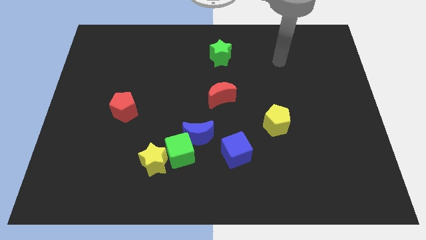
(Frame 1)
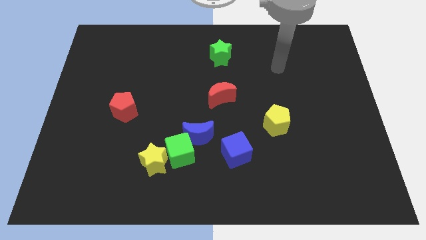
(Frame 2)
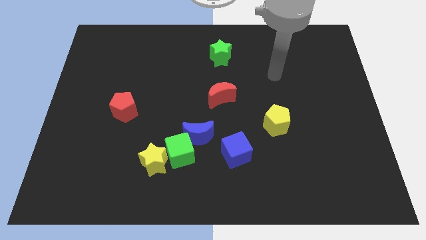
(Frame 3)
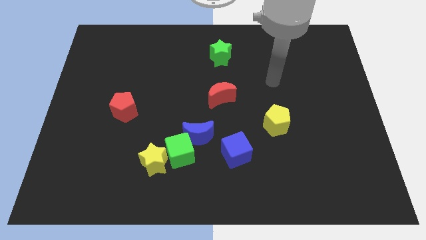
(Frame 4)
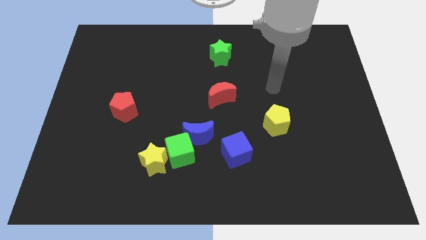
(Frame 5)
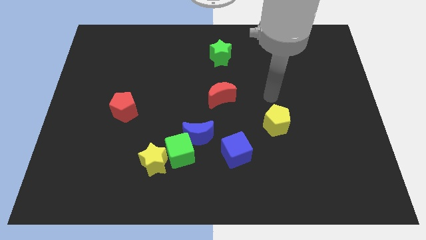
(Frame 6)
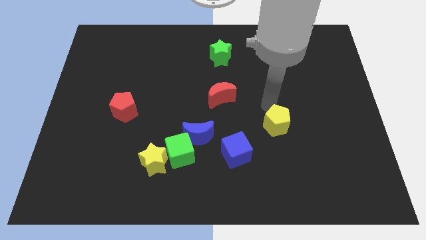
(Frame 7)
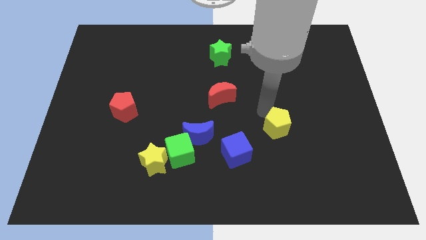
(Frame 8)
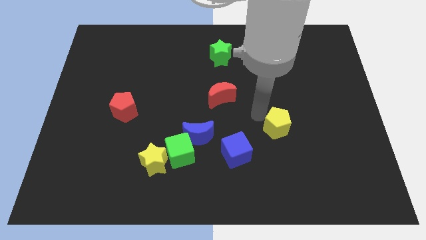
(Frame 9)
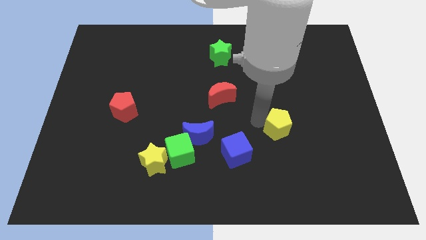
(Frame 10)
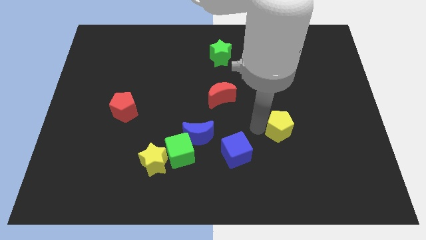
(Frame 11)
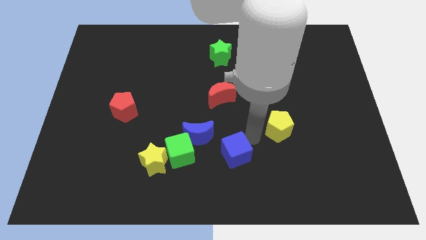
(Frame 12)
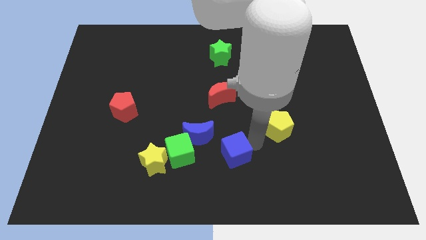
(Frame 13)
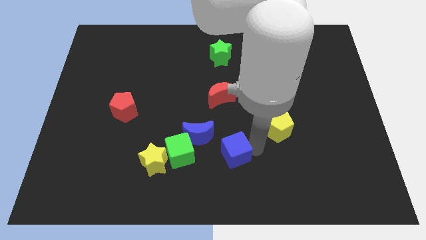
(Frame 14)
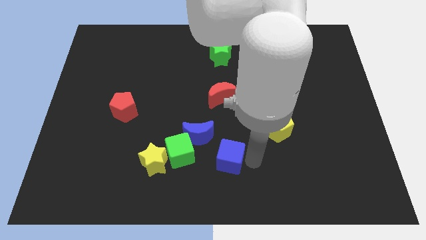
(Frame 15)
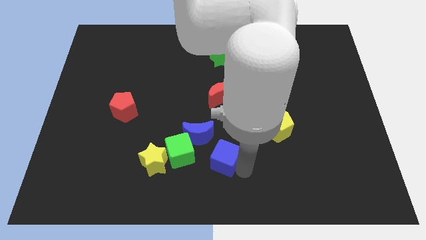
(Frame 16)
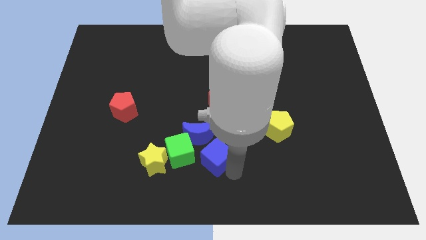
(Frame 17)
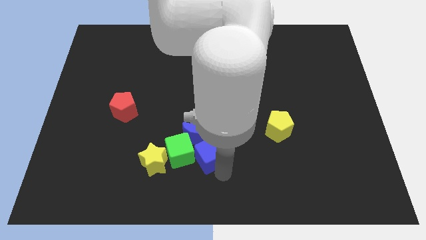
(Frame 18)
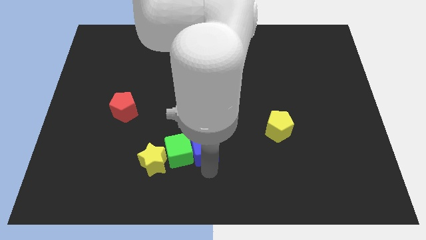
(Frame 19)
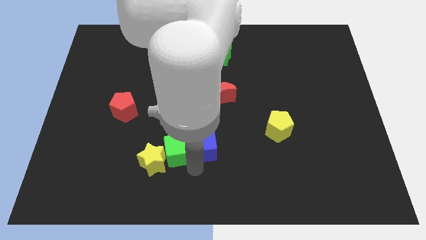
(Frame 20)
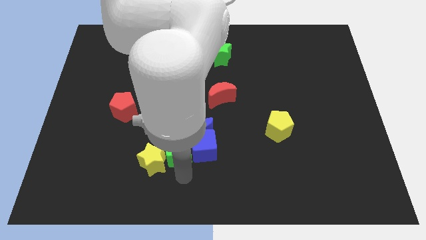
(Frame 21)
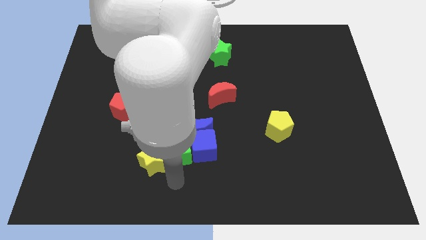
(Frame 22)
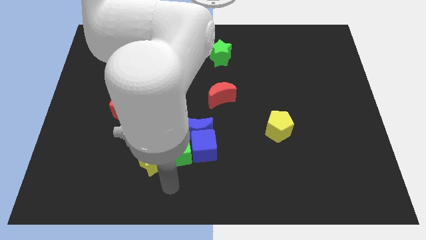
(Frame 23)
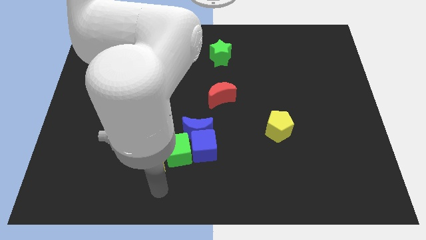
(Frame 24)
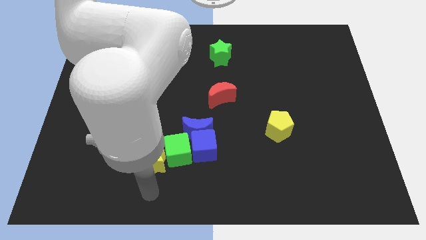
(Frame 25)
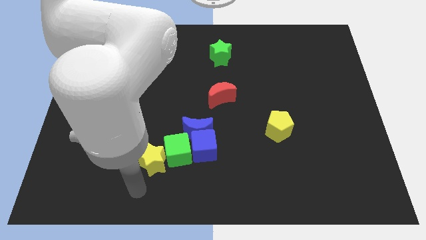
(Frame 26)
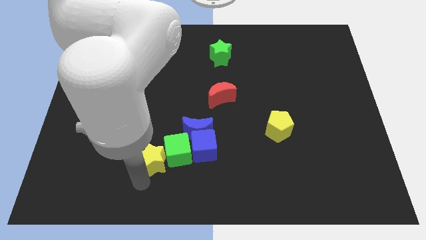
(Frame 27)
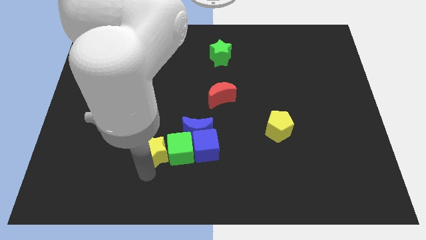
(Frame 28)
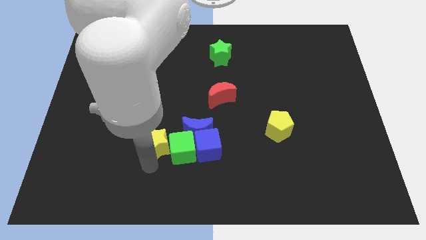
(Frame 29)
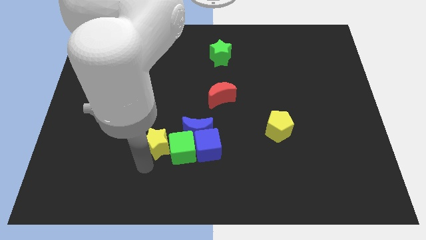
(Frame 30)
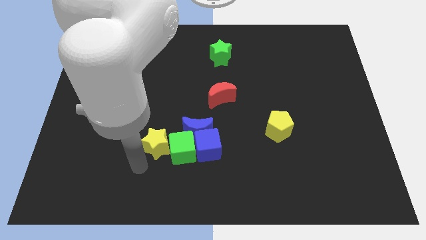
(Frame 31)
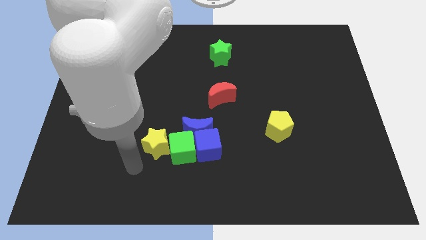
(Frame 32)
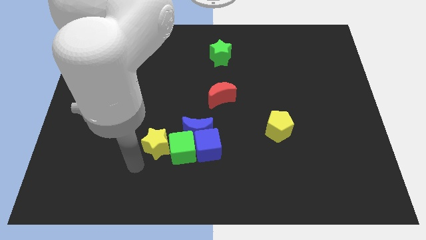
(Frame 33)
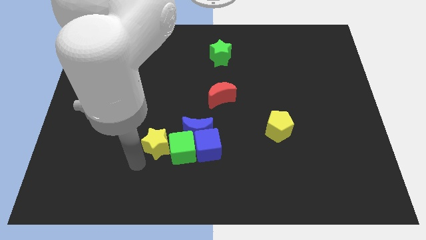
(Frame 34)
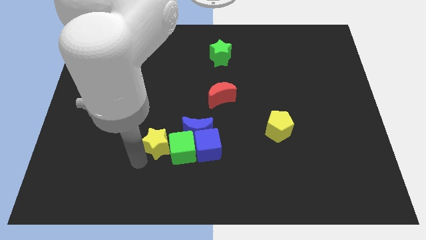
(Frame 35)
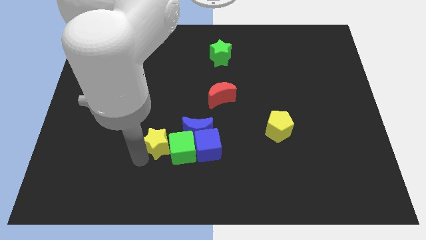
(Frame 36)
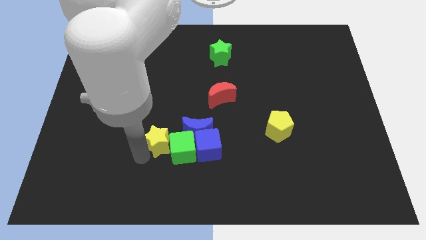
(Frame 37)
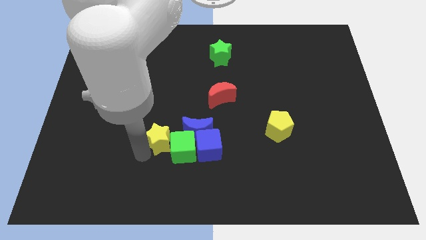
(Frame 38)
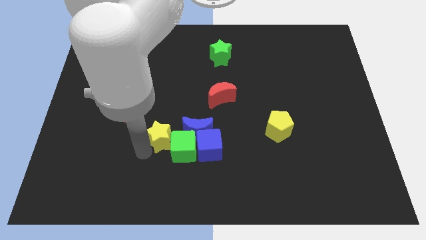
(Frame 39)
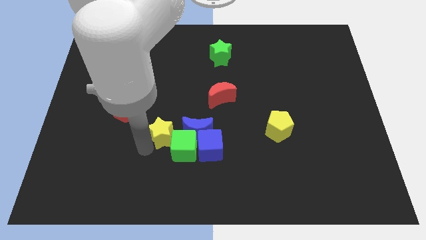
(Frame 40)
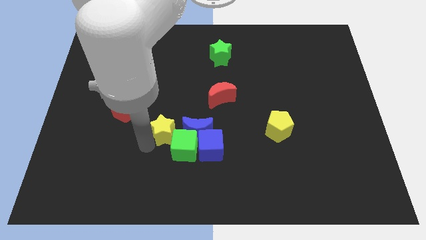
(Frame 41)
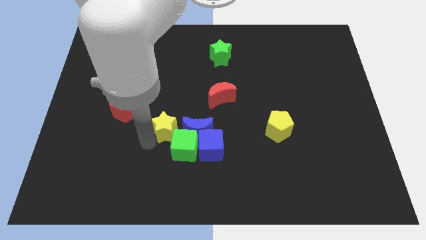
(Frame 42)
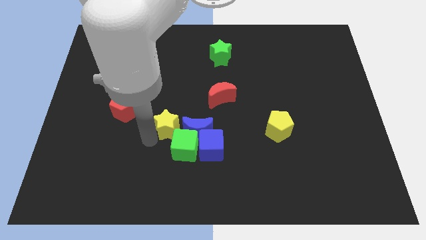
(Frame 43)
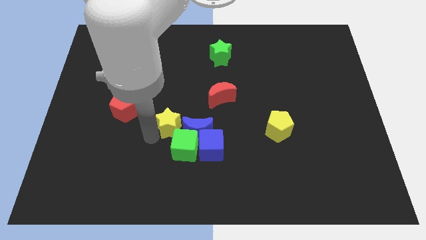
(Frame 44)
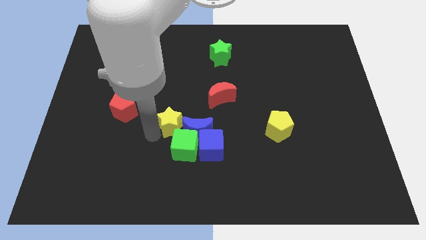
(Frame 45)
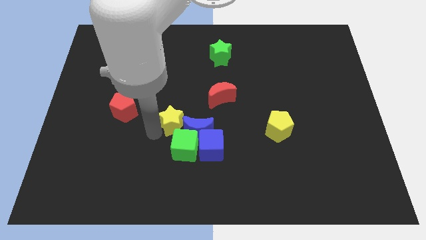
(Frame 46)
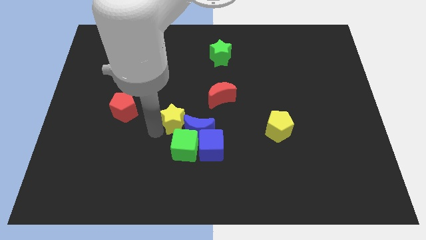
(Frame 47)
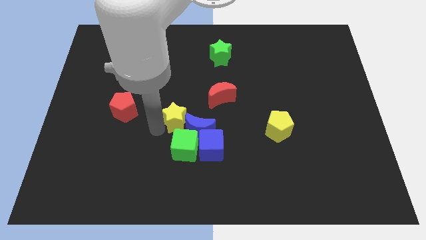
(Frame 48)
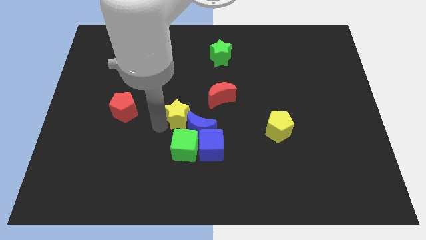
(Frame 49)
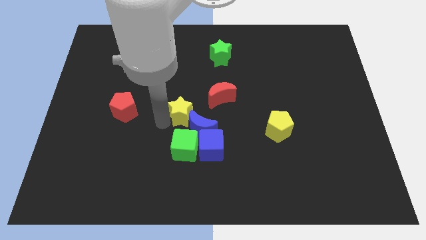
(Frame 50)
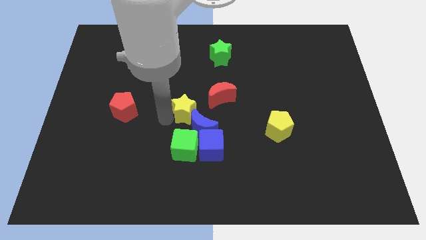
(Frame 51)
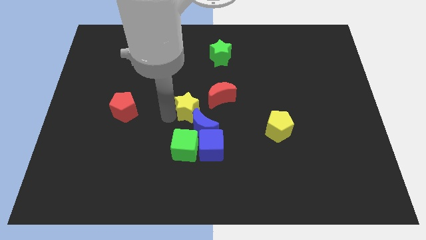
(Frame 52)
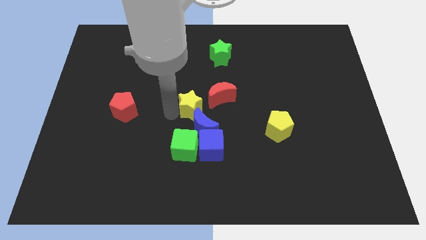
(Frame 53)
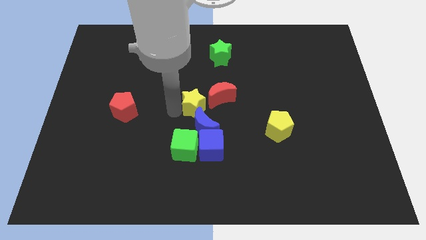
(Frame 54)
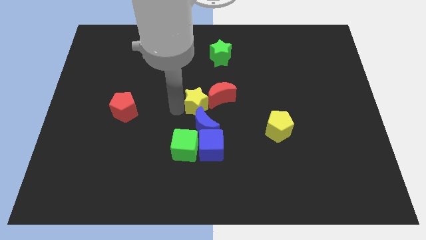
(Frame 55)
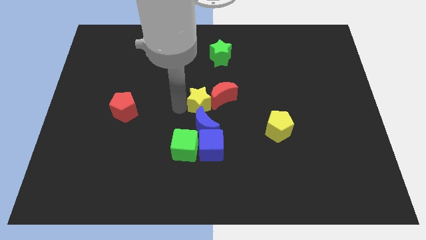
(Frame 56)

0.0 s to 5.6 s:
push the yellow star close to the red moon

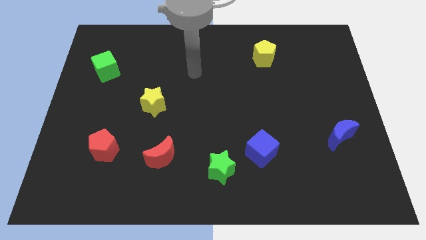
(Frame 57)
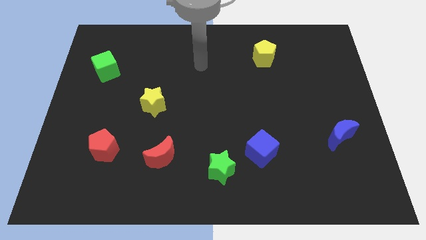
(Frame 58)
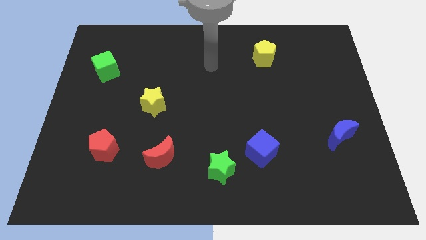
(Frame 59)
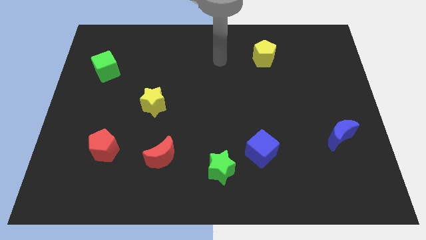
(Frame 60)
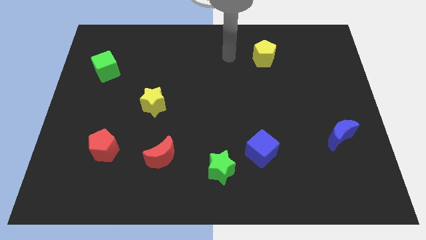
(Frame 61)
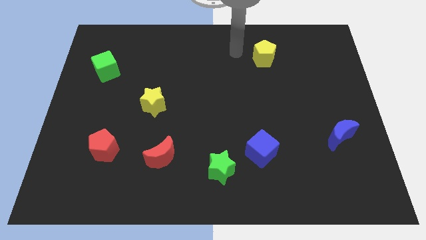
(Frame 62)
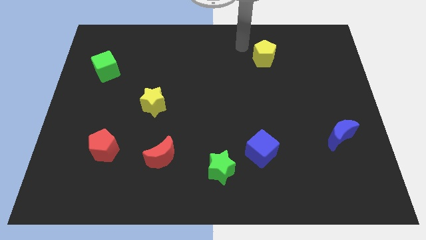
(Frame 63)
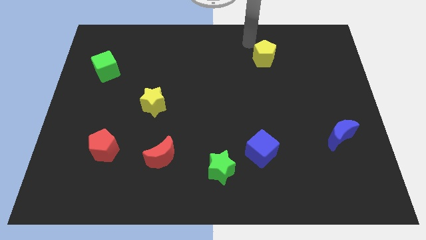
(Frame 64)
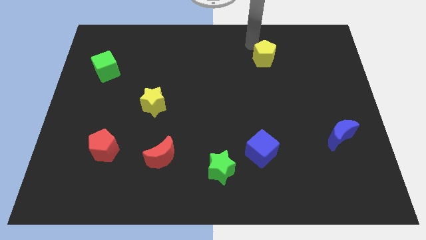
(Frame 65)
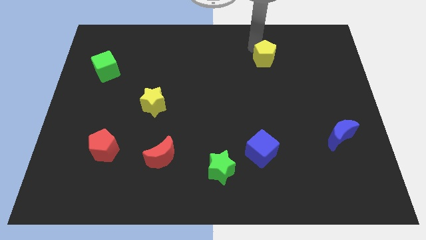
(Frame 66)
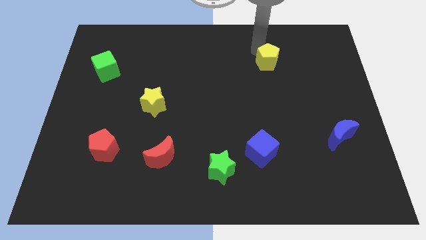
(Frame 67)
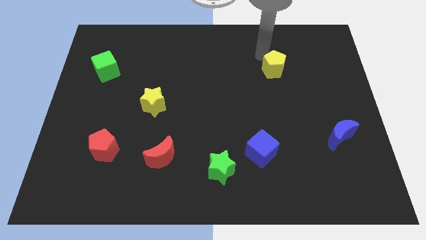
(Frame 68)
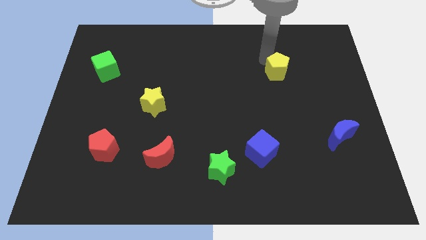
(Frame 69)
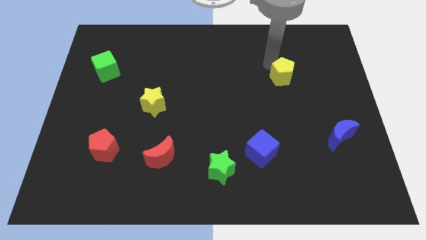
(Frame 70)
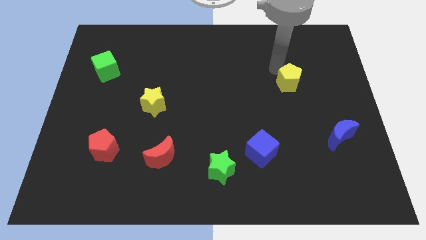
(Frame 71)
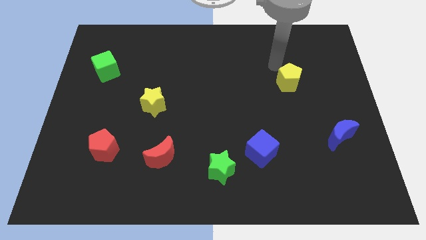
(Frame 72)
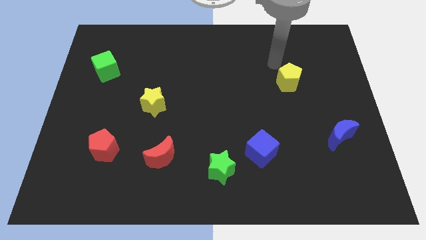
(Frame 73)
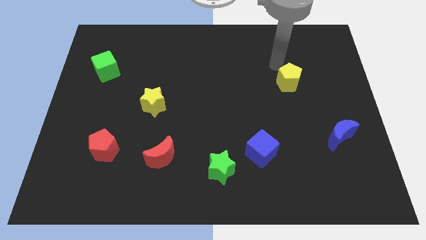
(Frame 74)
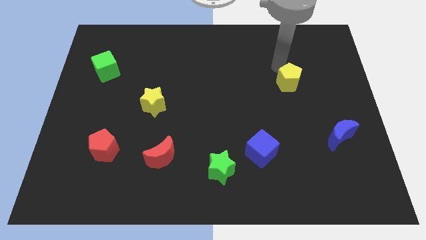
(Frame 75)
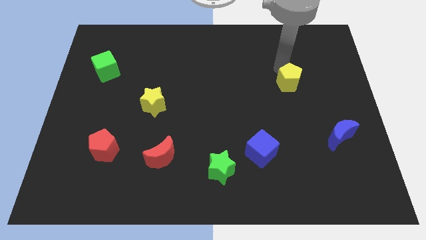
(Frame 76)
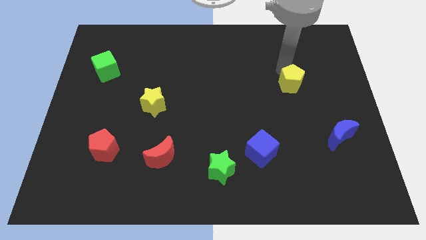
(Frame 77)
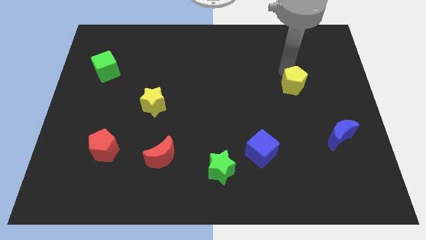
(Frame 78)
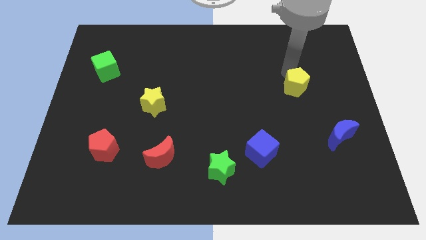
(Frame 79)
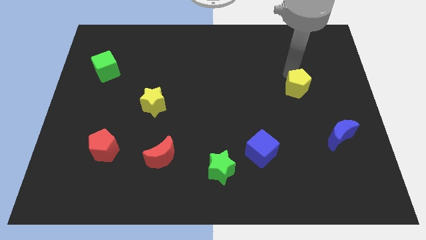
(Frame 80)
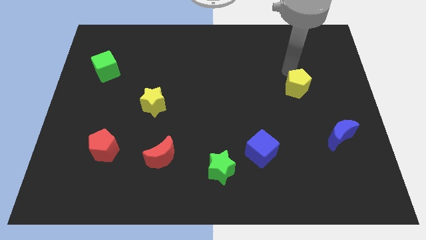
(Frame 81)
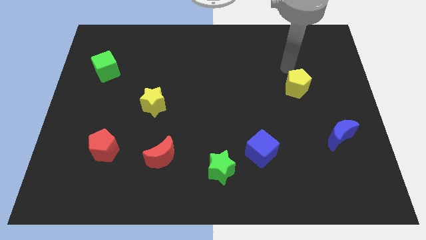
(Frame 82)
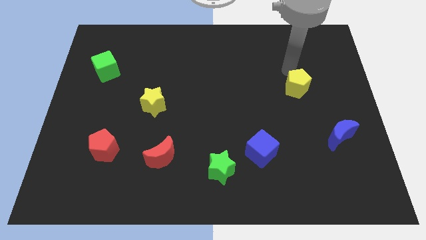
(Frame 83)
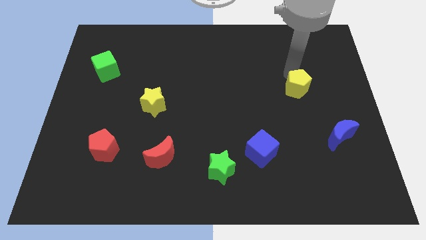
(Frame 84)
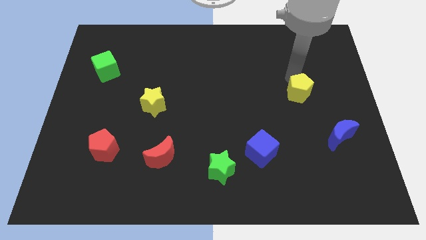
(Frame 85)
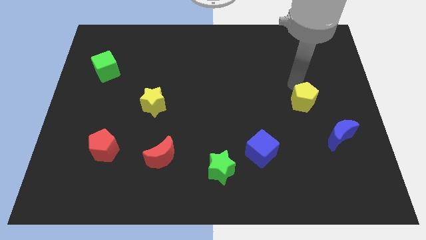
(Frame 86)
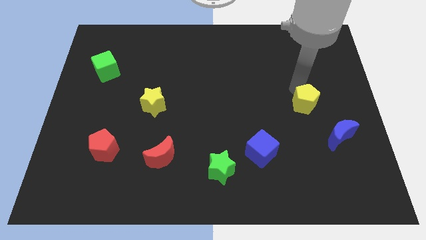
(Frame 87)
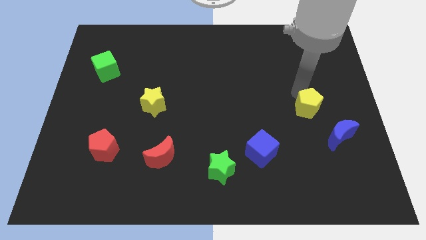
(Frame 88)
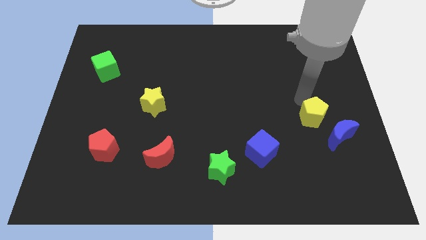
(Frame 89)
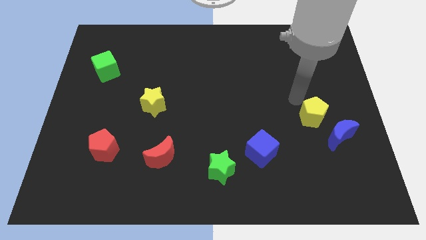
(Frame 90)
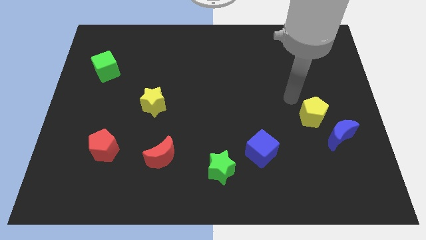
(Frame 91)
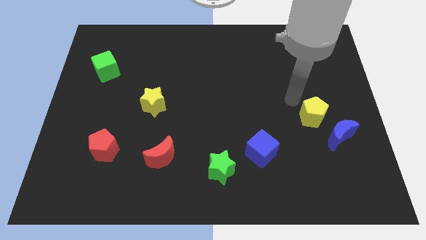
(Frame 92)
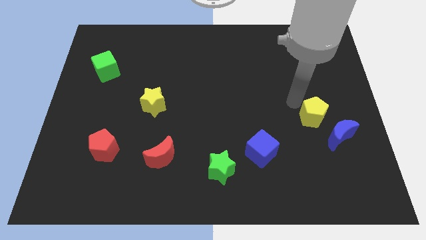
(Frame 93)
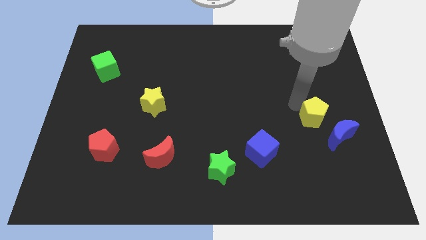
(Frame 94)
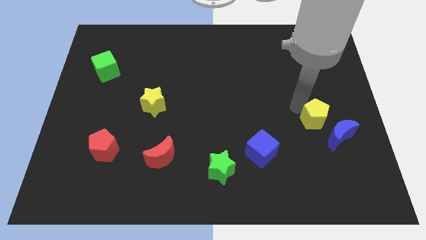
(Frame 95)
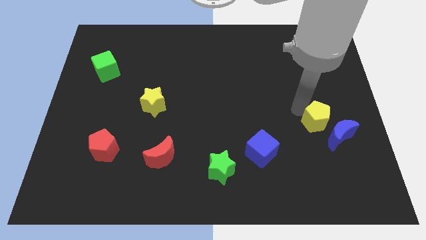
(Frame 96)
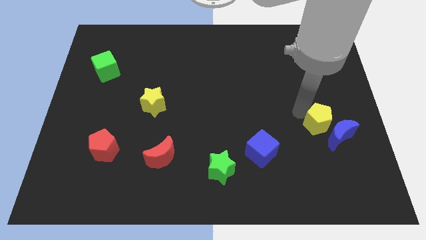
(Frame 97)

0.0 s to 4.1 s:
move the yellow pentagon close to the blue moon
